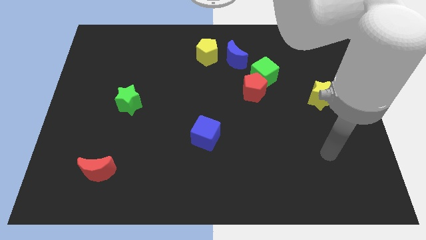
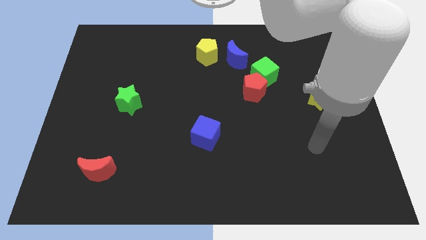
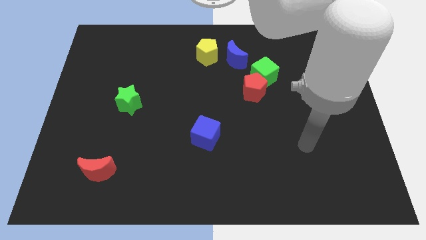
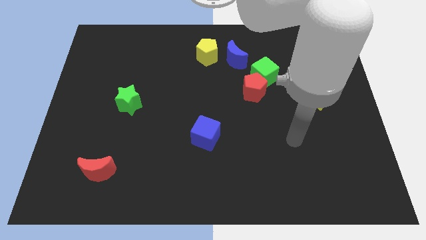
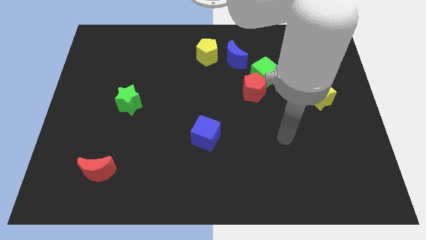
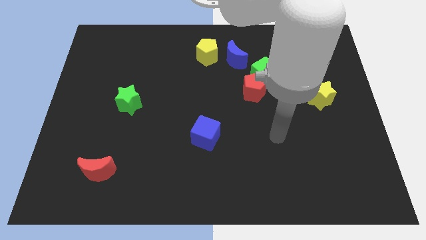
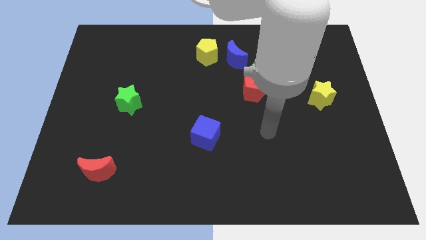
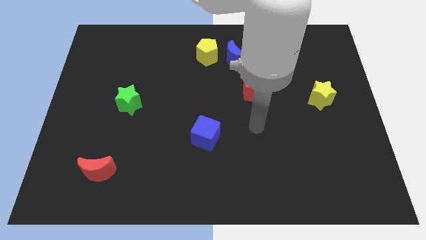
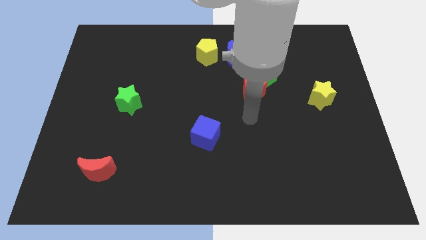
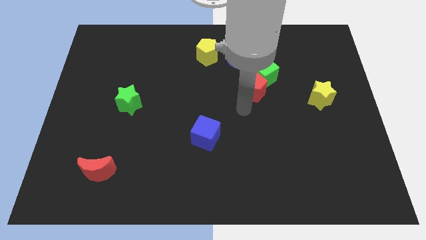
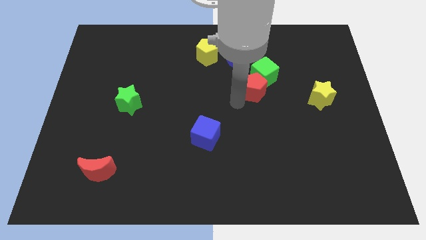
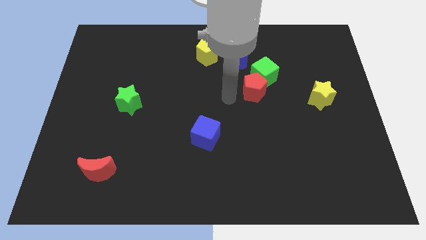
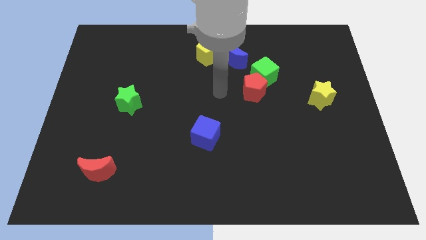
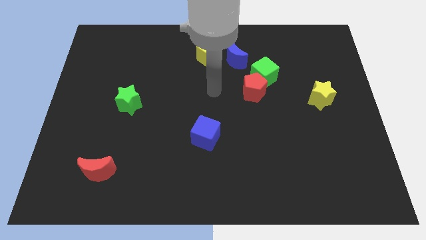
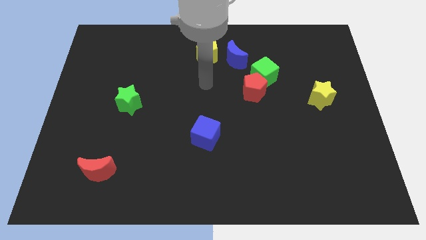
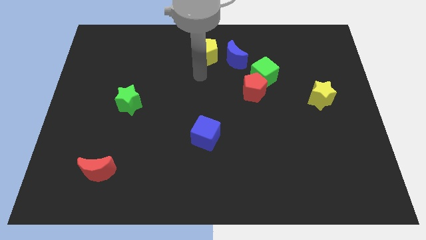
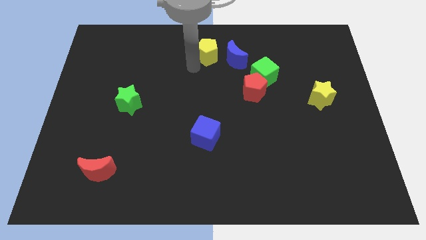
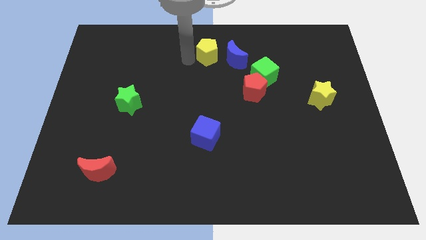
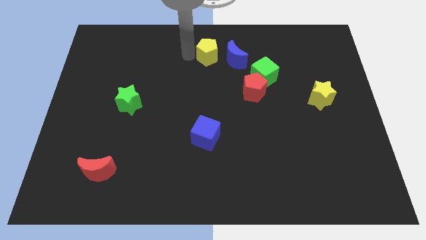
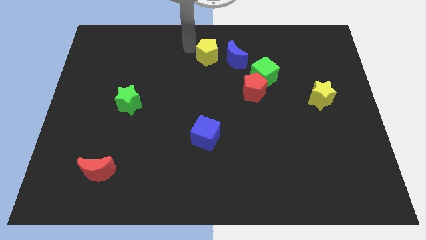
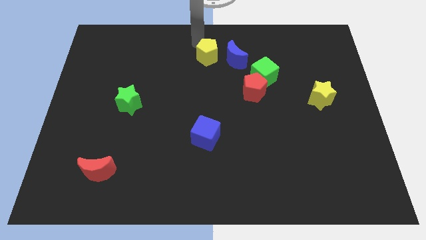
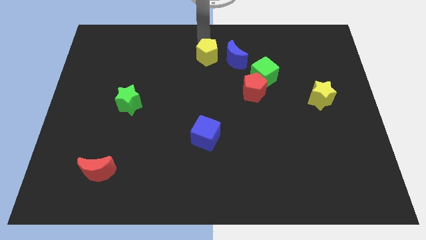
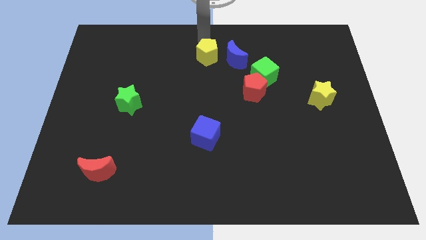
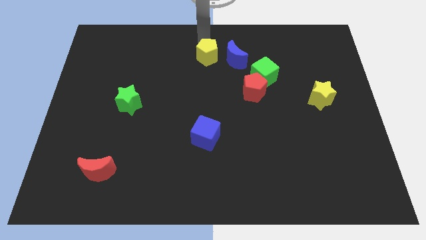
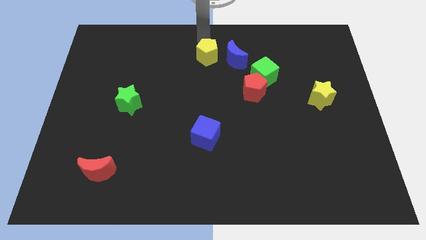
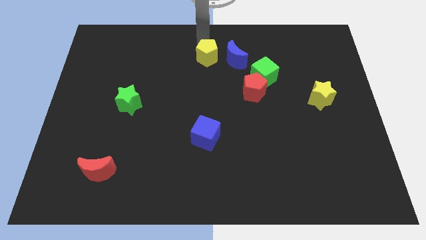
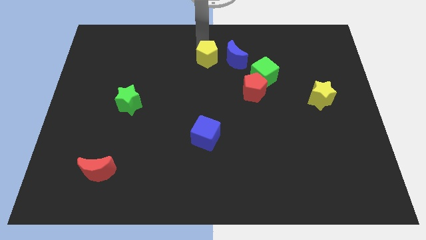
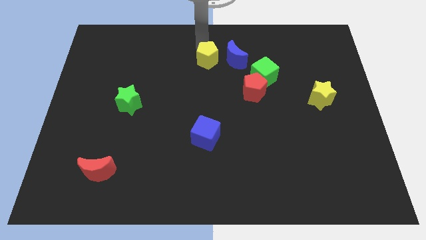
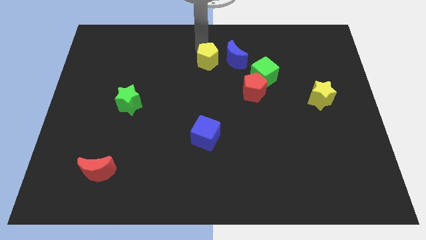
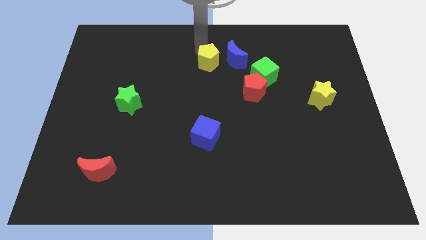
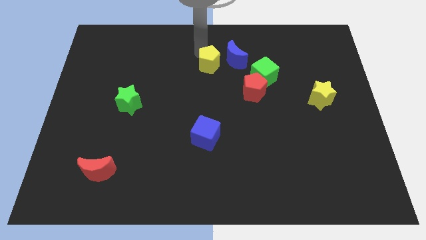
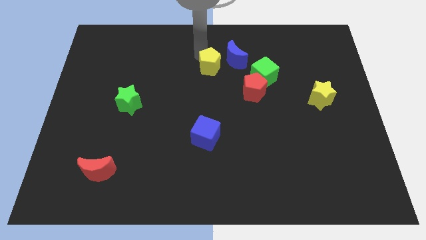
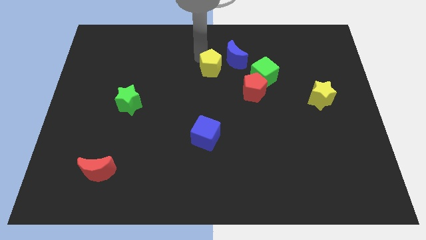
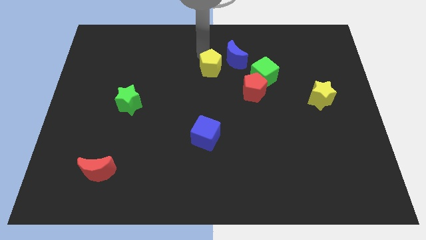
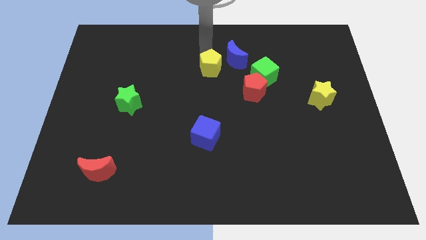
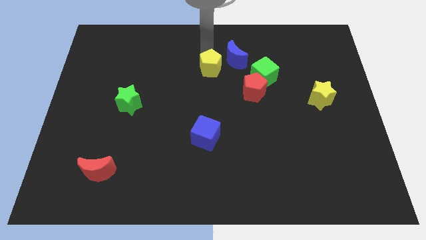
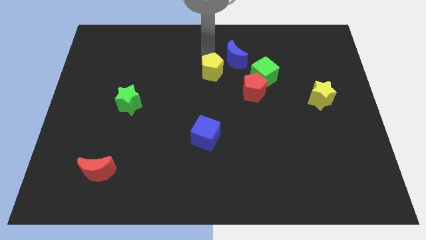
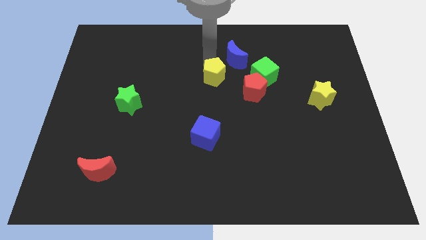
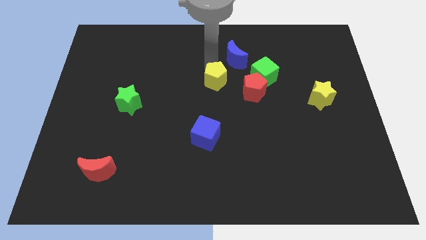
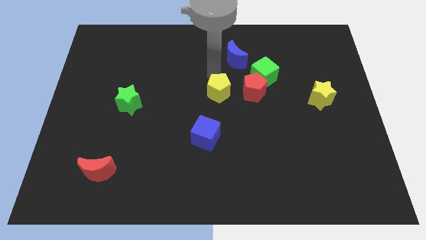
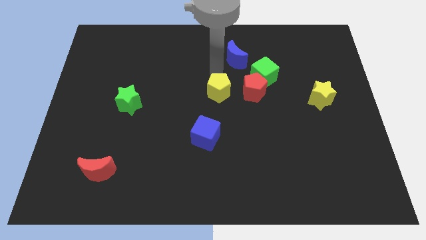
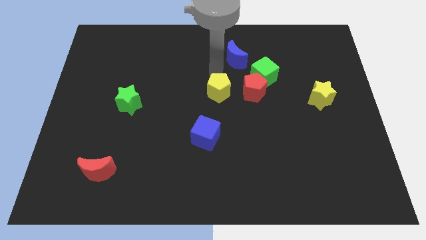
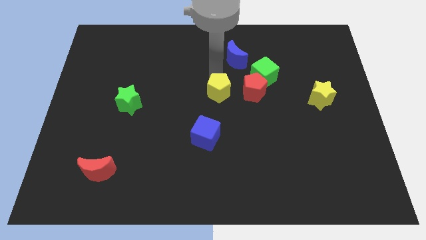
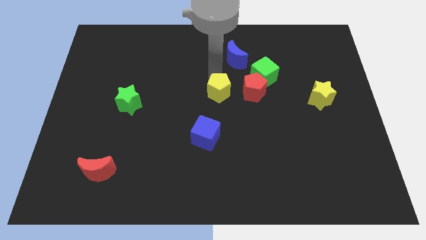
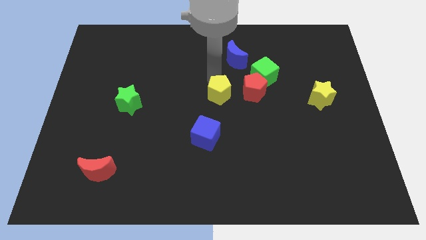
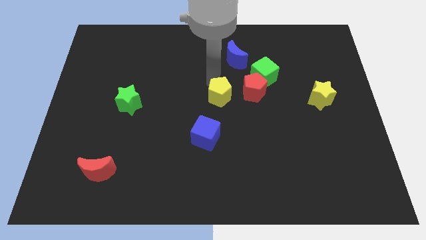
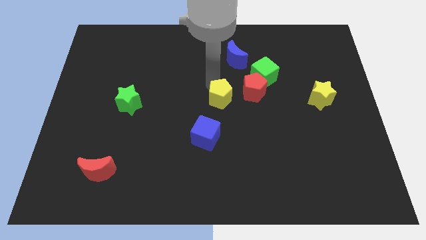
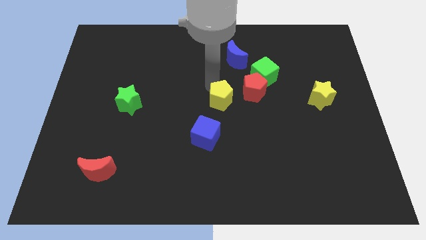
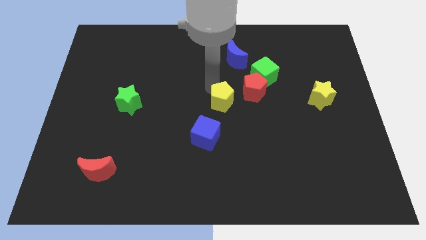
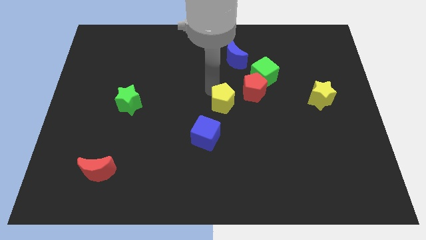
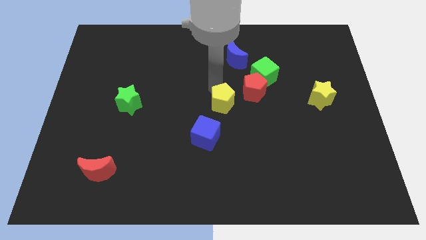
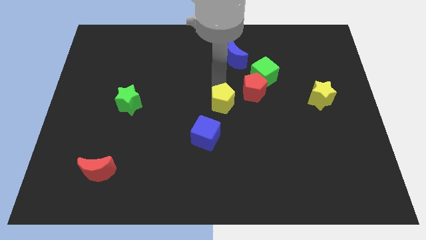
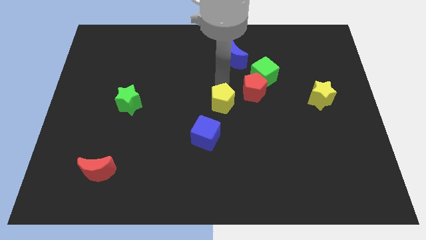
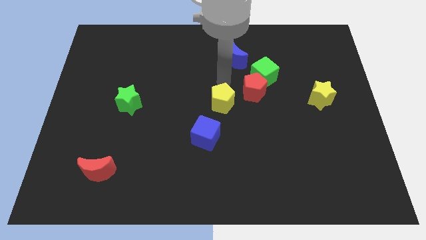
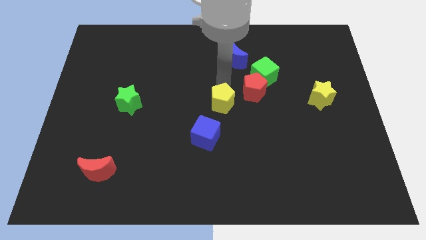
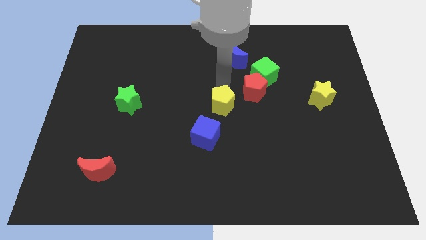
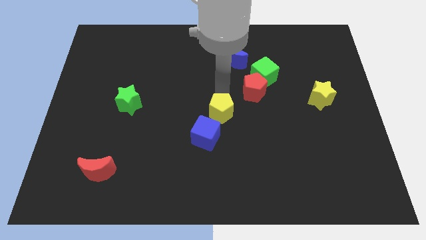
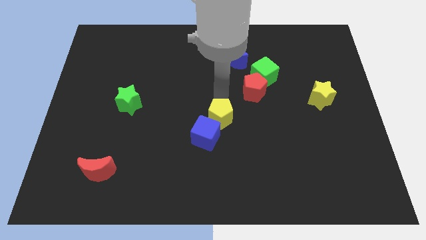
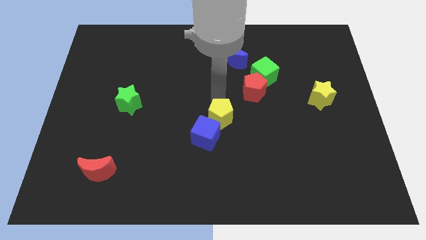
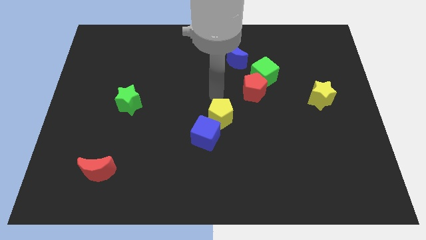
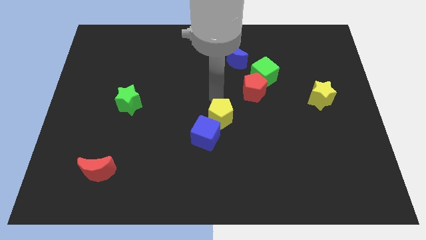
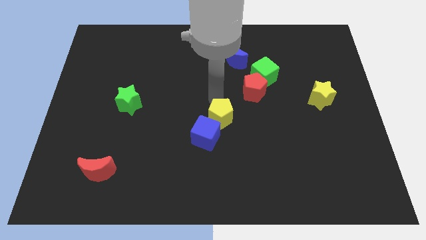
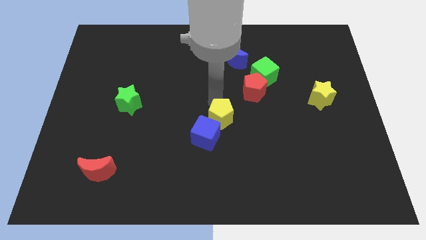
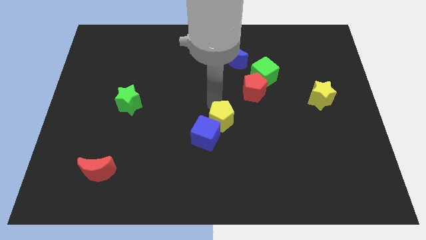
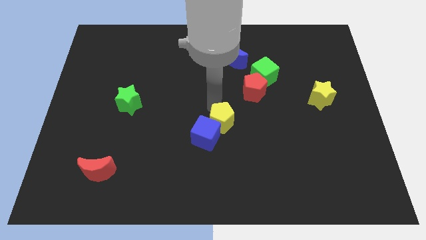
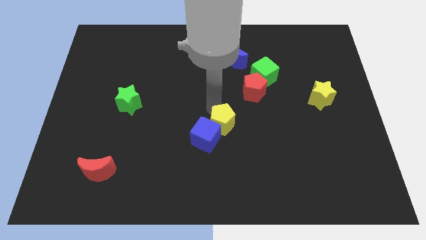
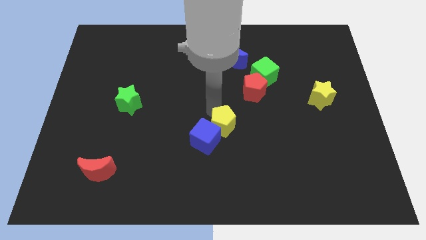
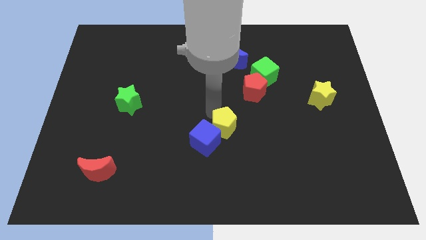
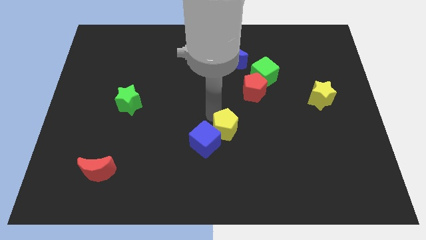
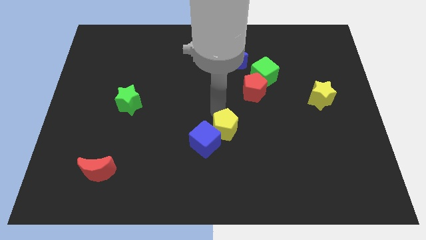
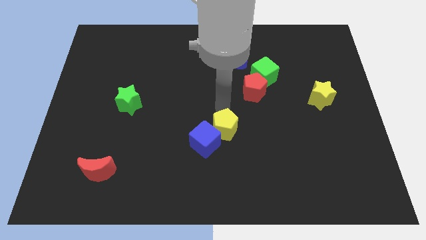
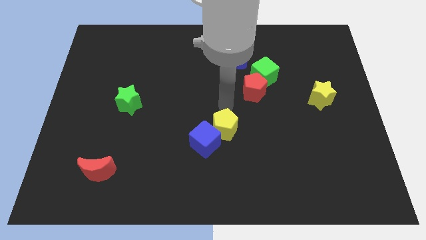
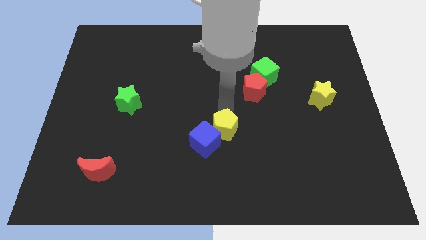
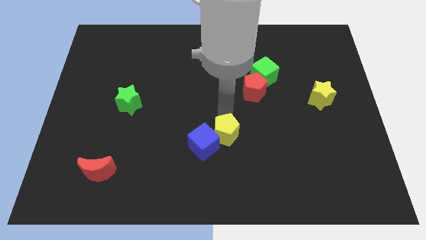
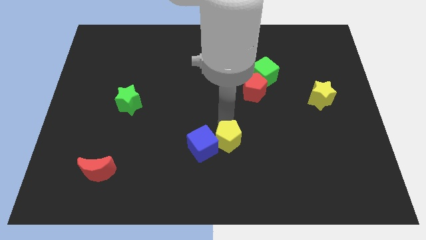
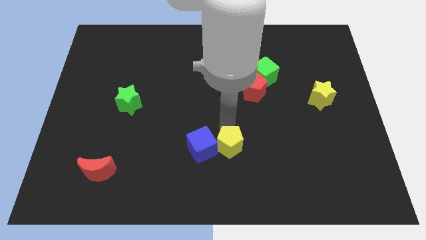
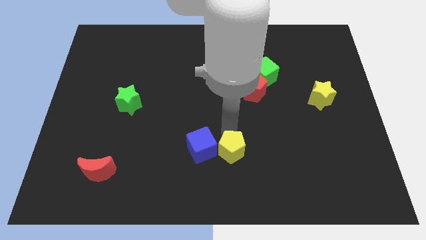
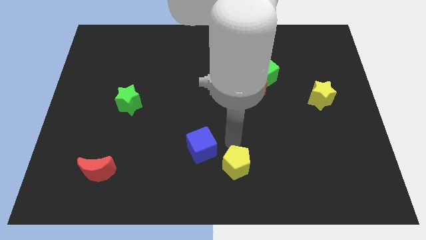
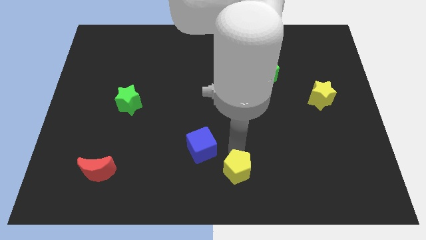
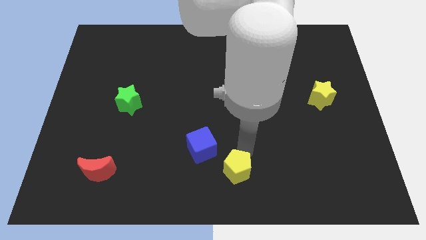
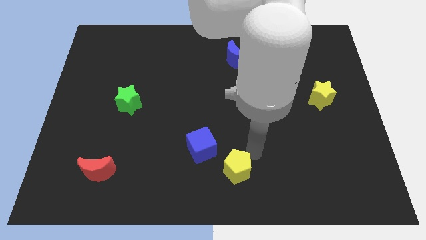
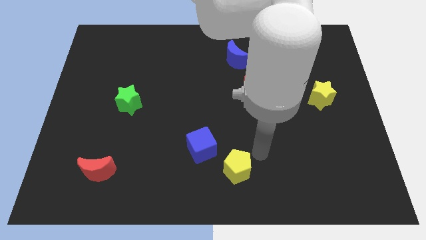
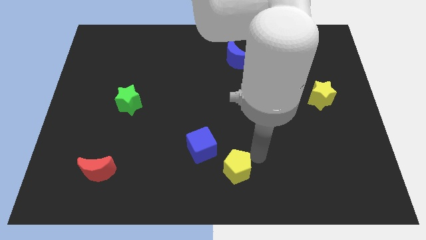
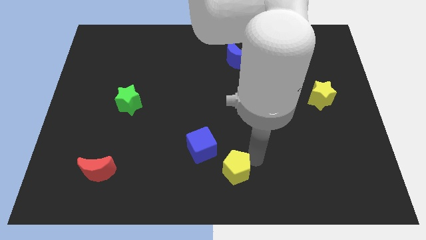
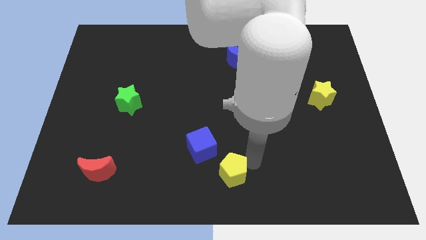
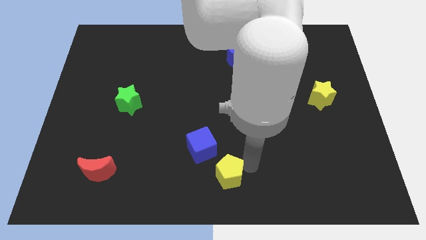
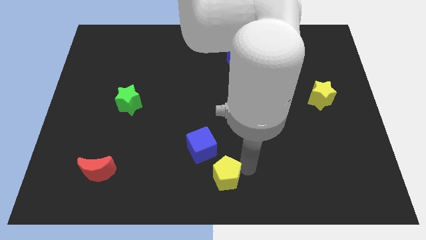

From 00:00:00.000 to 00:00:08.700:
slide the yellow pentagon to the bottom side of the blue cube
